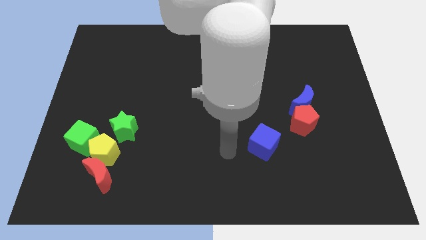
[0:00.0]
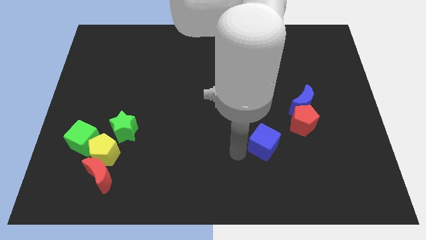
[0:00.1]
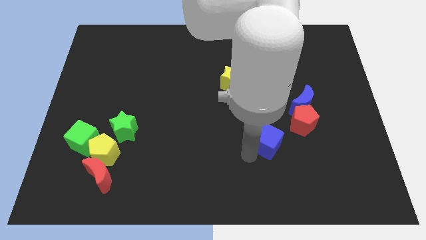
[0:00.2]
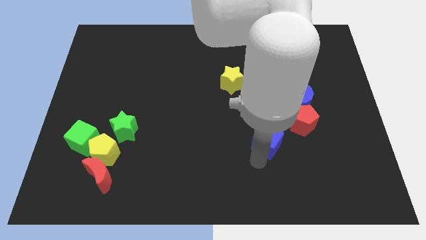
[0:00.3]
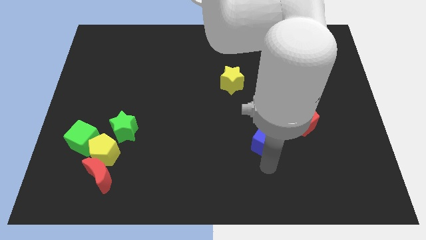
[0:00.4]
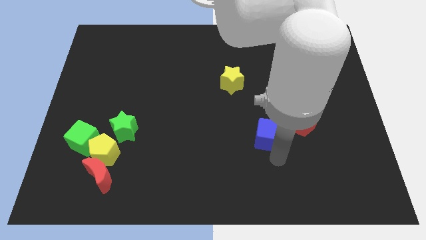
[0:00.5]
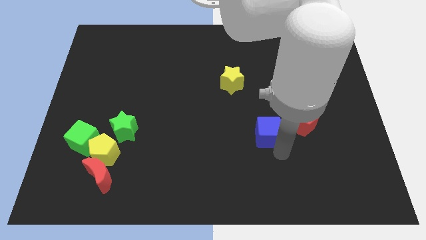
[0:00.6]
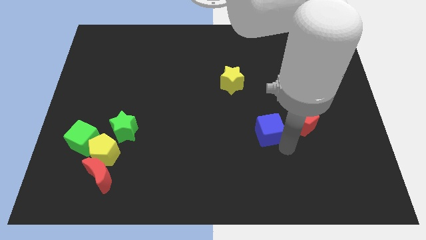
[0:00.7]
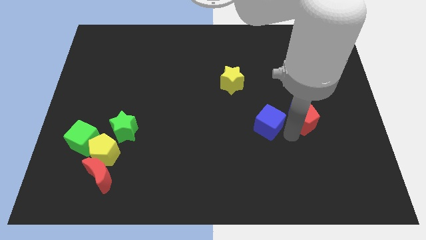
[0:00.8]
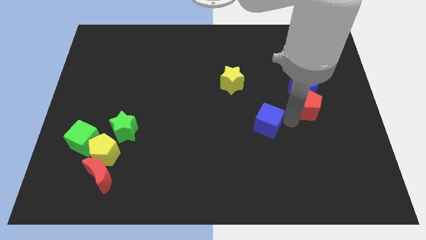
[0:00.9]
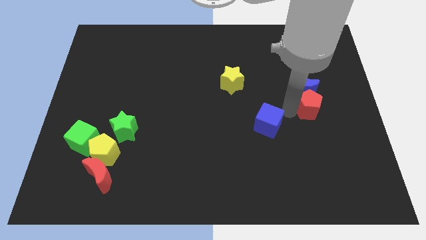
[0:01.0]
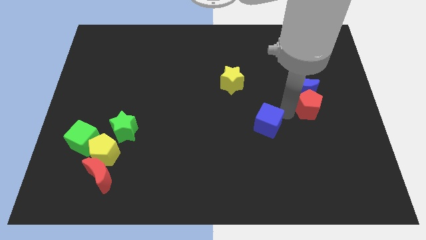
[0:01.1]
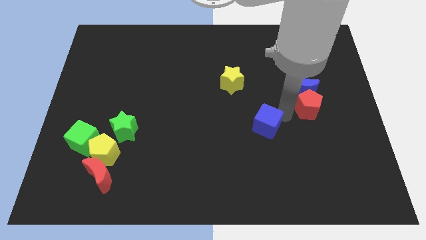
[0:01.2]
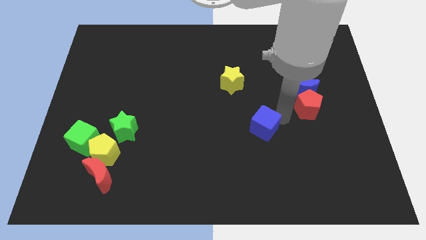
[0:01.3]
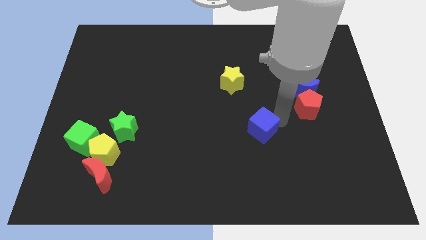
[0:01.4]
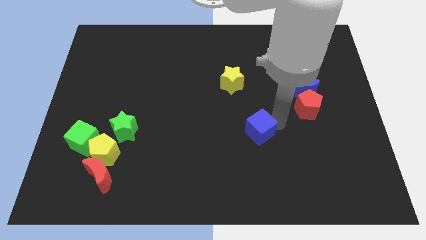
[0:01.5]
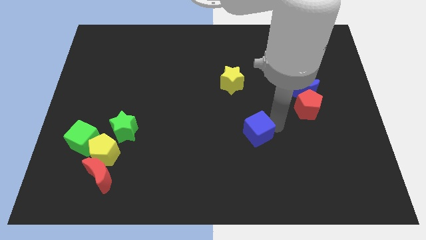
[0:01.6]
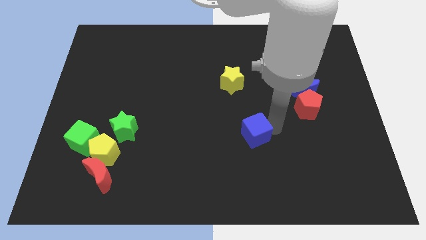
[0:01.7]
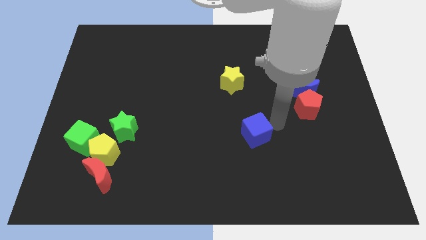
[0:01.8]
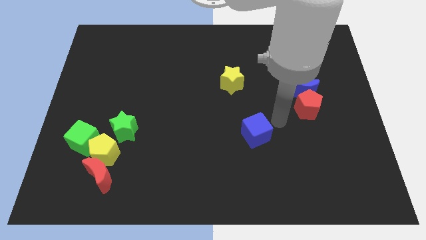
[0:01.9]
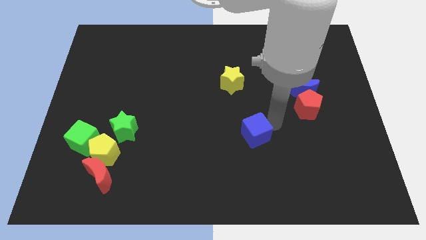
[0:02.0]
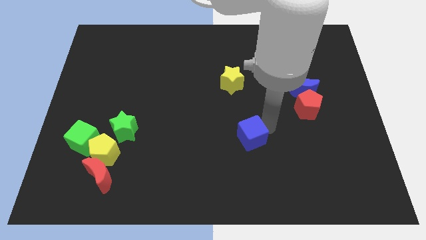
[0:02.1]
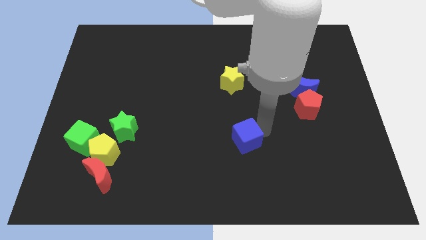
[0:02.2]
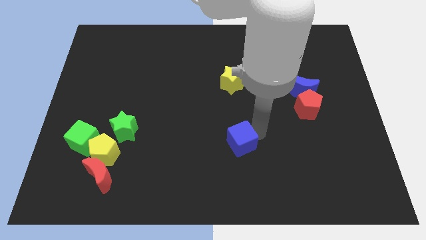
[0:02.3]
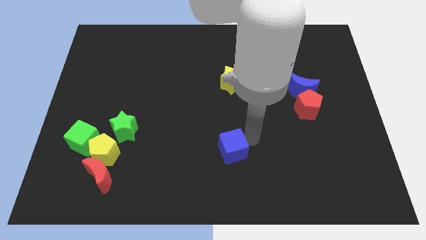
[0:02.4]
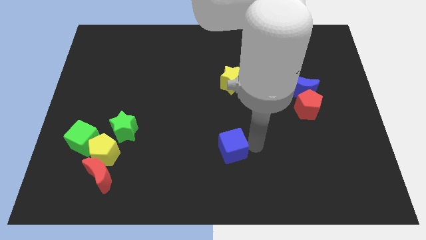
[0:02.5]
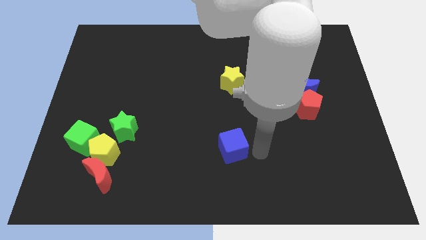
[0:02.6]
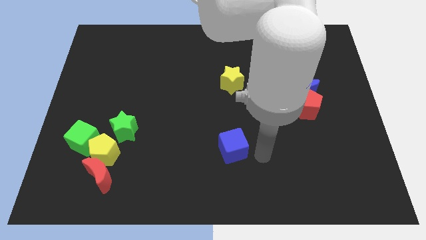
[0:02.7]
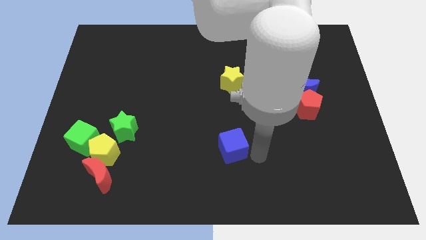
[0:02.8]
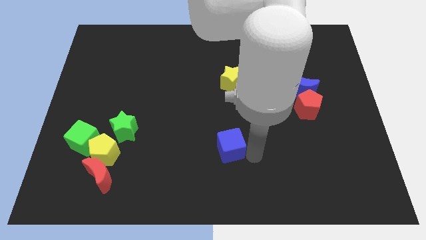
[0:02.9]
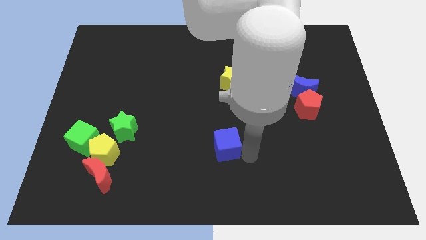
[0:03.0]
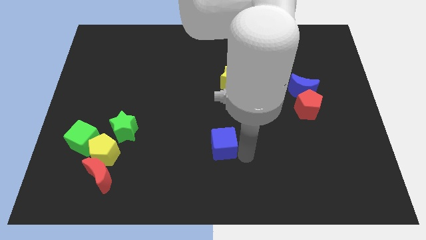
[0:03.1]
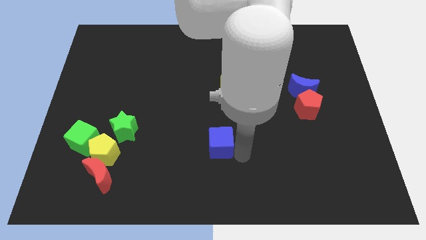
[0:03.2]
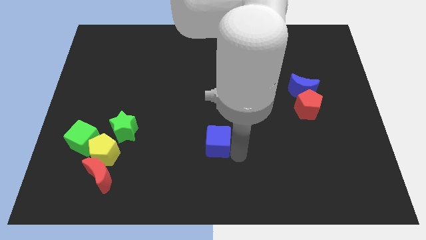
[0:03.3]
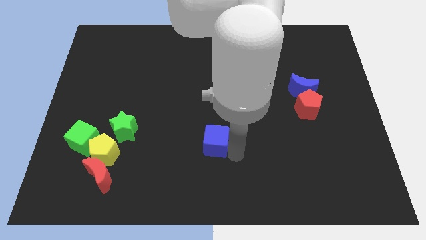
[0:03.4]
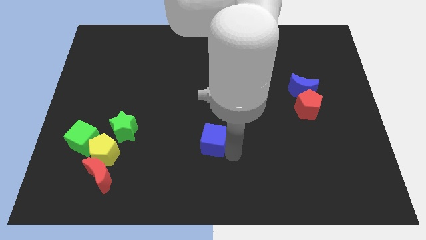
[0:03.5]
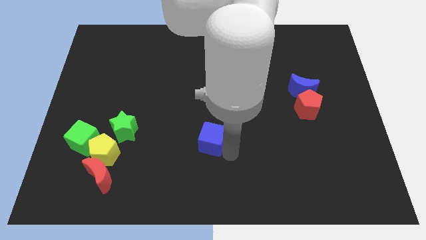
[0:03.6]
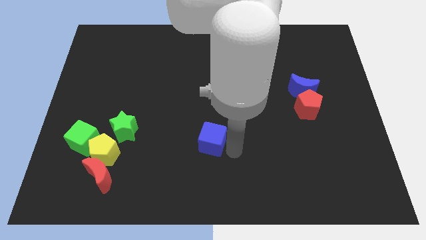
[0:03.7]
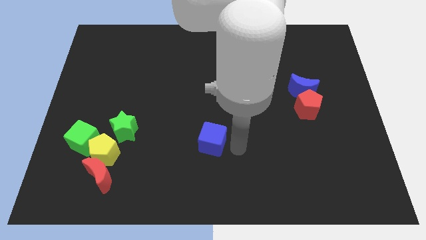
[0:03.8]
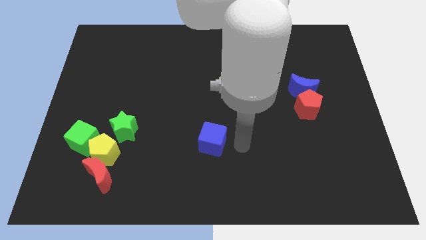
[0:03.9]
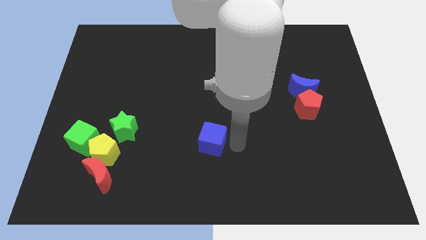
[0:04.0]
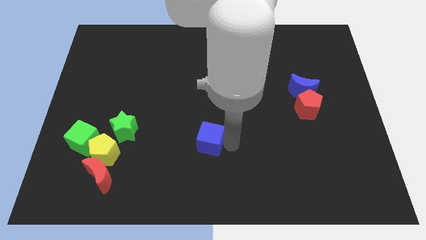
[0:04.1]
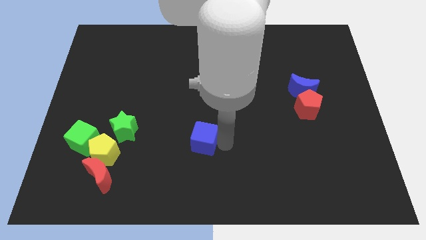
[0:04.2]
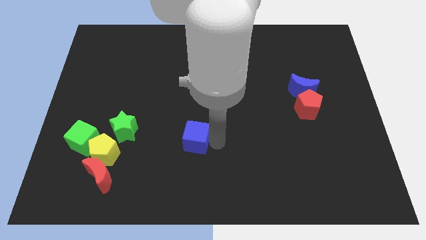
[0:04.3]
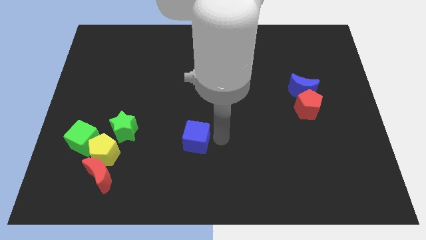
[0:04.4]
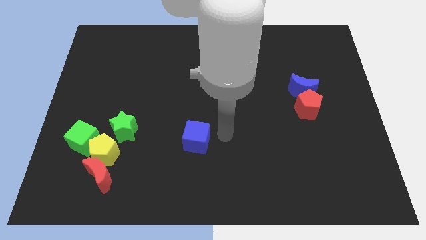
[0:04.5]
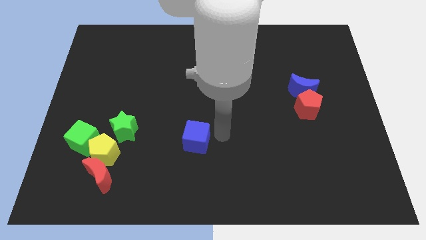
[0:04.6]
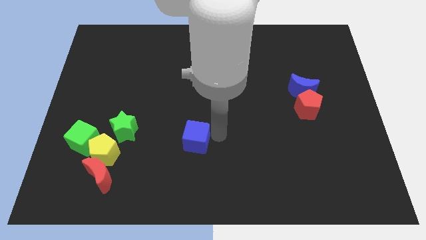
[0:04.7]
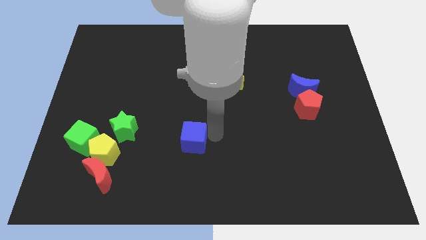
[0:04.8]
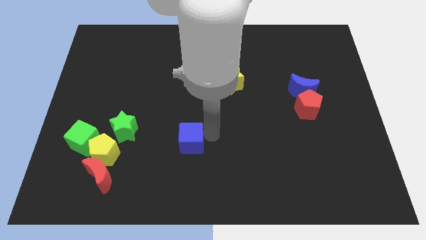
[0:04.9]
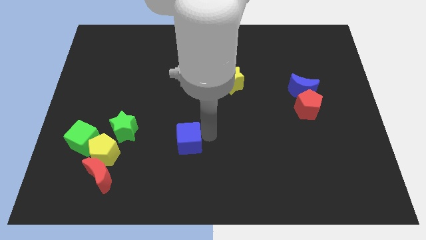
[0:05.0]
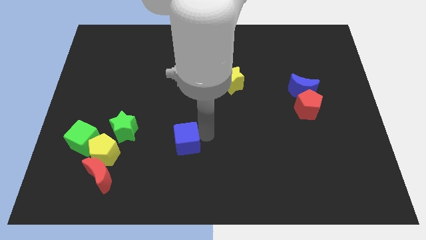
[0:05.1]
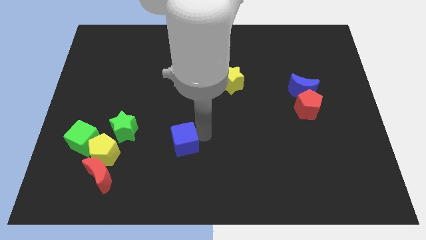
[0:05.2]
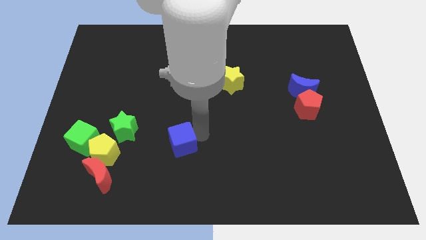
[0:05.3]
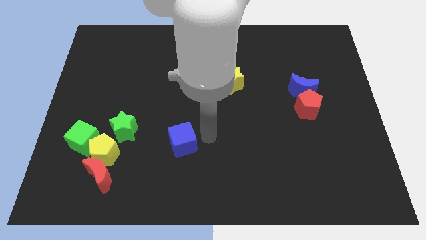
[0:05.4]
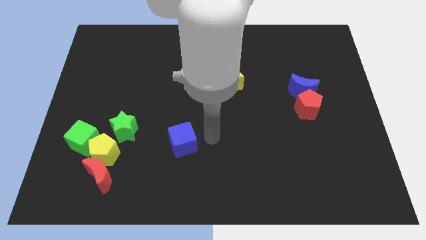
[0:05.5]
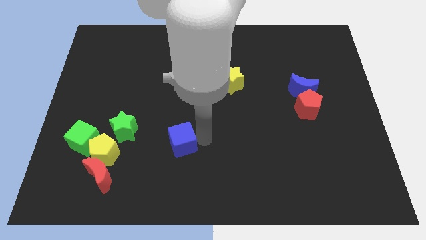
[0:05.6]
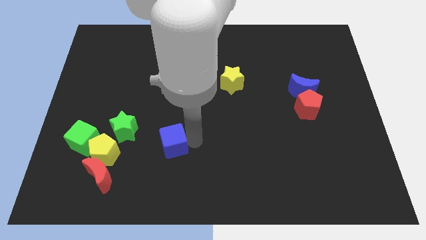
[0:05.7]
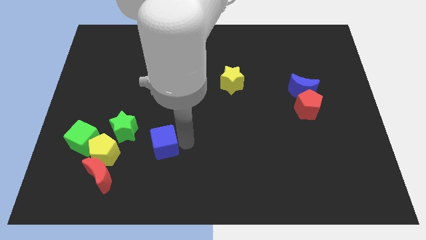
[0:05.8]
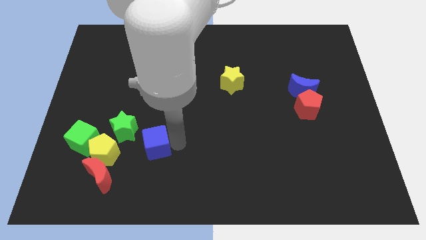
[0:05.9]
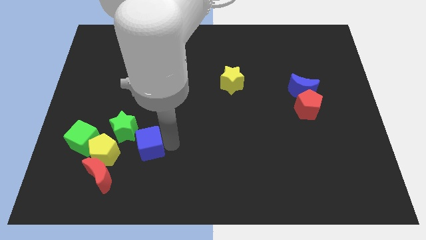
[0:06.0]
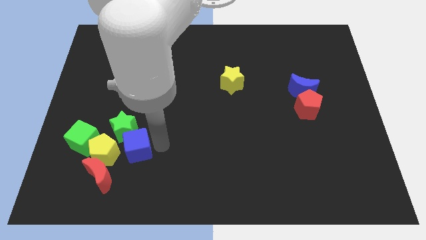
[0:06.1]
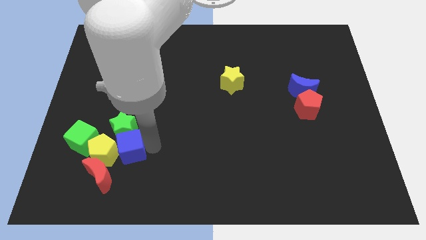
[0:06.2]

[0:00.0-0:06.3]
slide the blue cube close to the yellow pentagon
